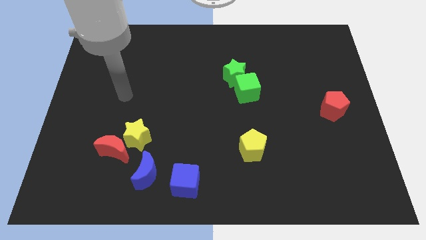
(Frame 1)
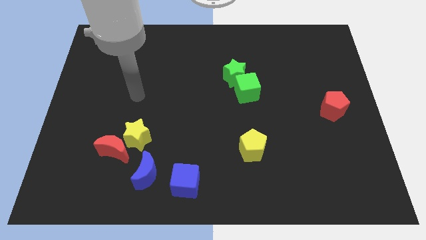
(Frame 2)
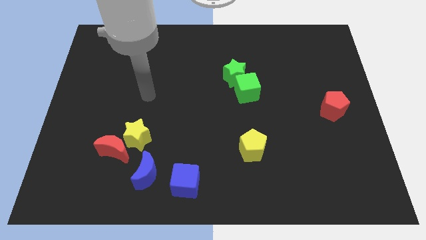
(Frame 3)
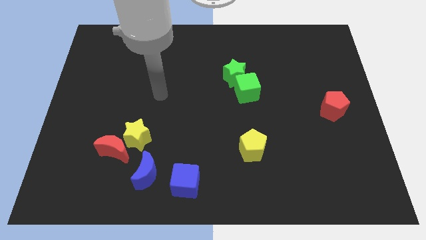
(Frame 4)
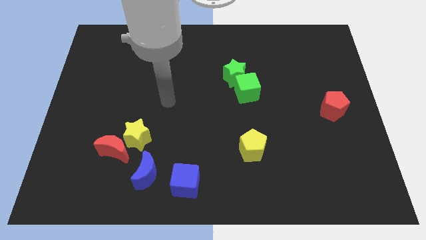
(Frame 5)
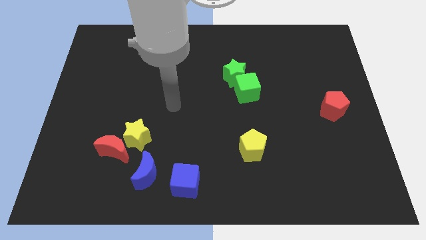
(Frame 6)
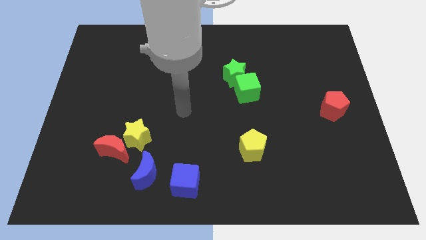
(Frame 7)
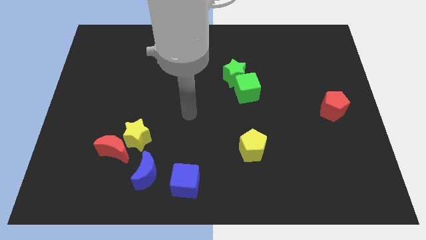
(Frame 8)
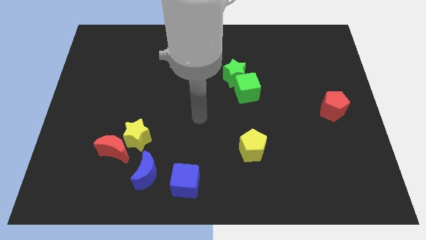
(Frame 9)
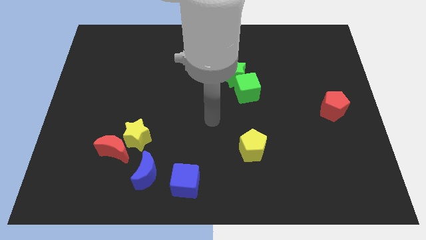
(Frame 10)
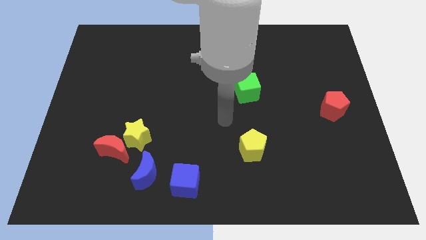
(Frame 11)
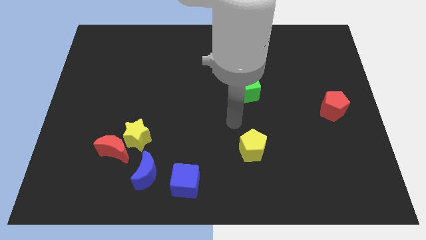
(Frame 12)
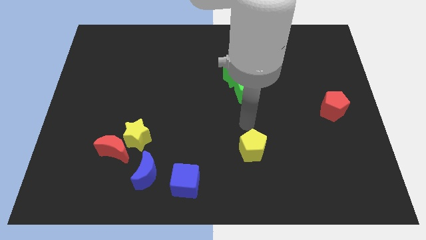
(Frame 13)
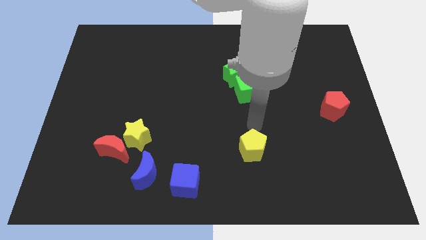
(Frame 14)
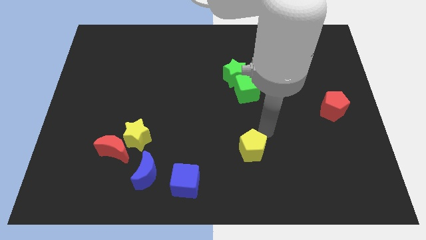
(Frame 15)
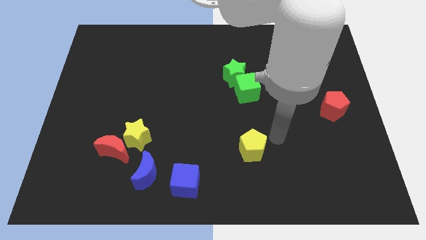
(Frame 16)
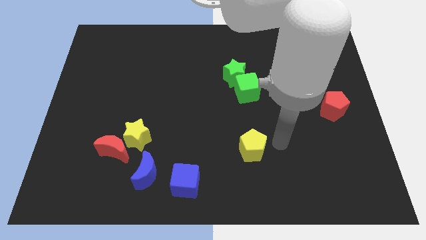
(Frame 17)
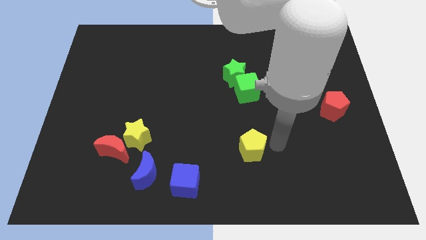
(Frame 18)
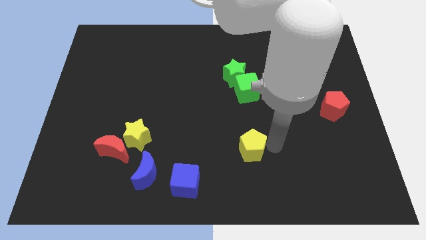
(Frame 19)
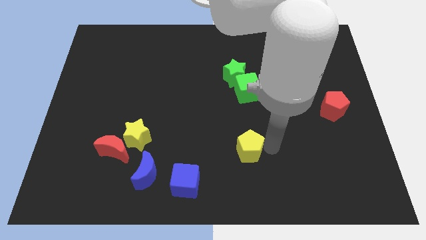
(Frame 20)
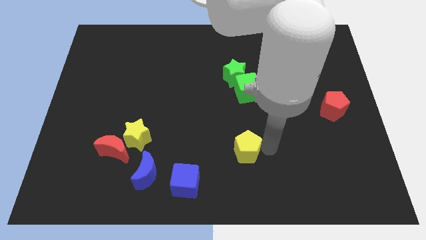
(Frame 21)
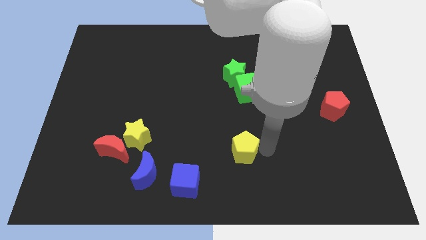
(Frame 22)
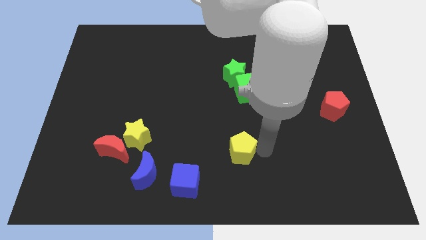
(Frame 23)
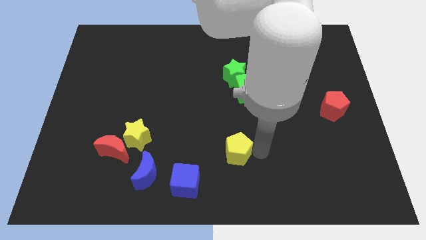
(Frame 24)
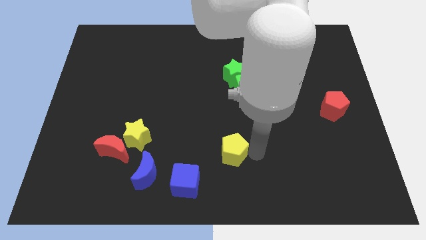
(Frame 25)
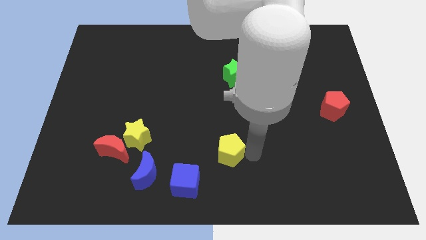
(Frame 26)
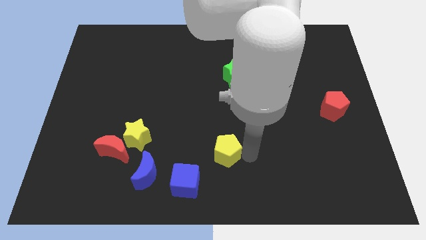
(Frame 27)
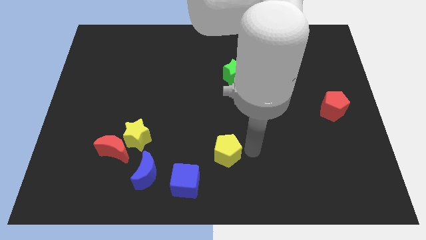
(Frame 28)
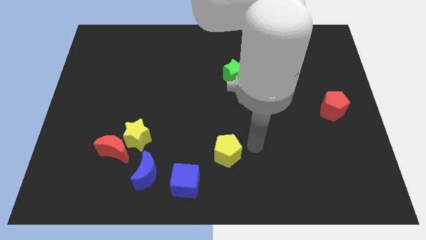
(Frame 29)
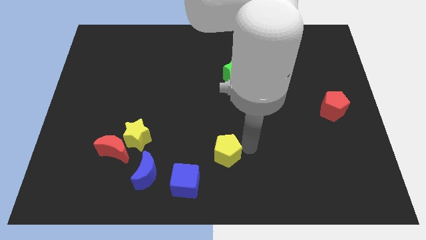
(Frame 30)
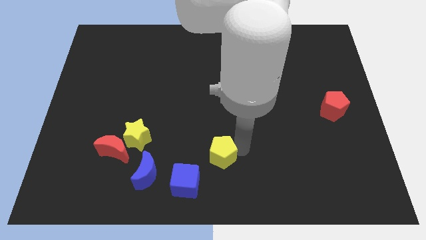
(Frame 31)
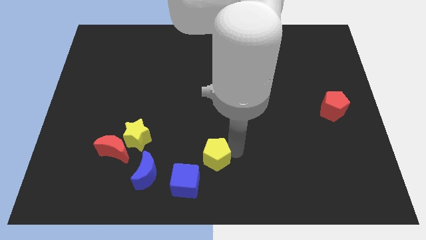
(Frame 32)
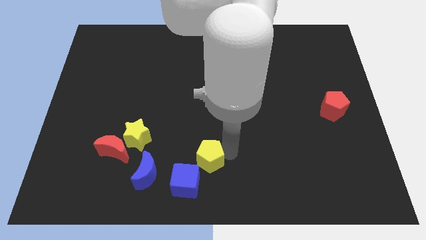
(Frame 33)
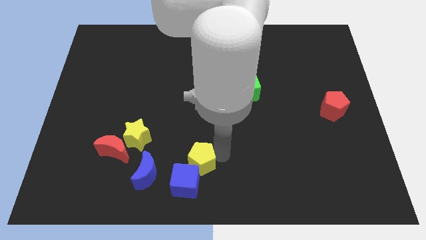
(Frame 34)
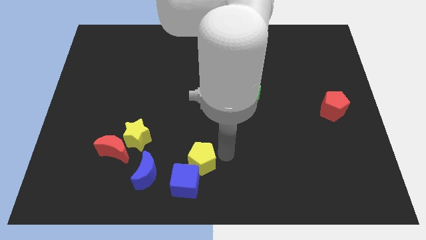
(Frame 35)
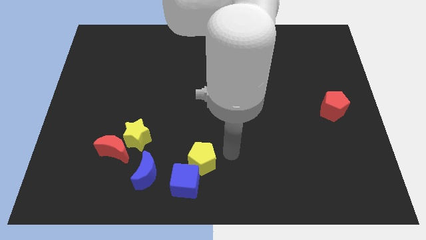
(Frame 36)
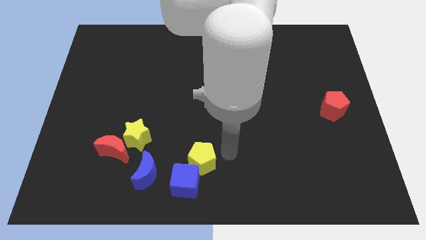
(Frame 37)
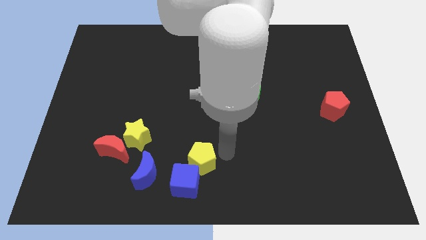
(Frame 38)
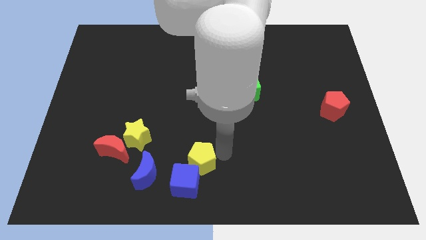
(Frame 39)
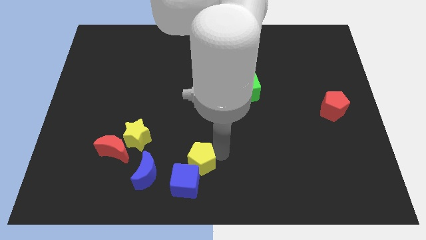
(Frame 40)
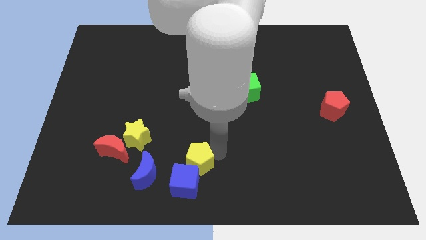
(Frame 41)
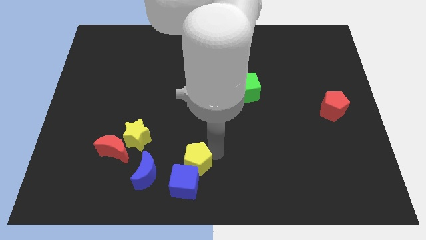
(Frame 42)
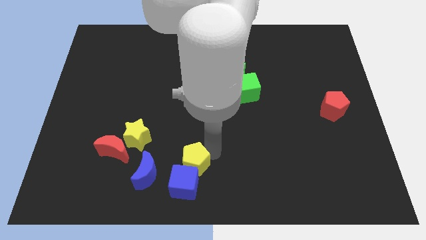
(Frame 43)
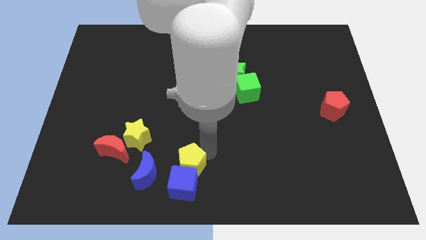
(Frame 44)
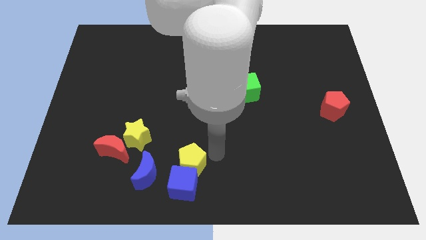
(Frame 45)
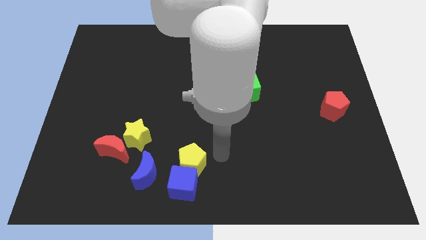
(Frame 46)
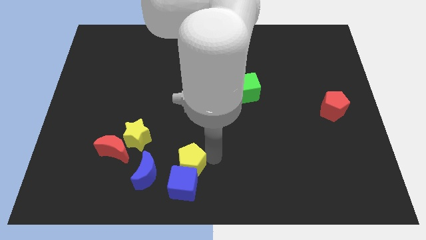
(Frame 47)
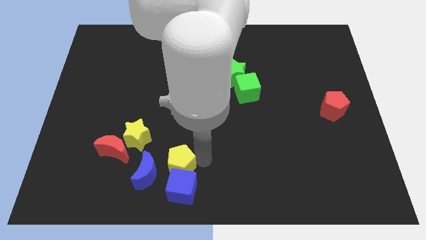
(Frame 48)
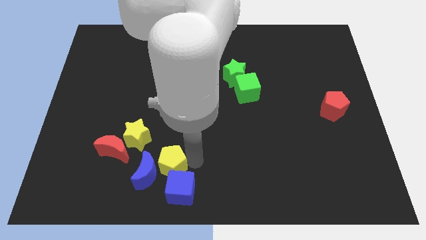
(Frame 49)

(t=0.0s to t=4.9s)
move the yellow pentagon to the blue moon

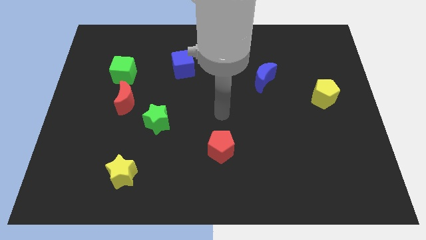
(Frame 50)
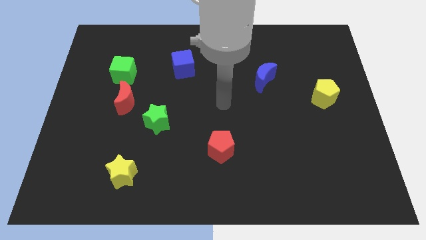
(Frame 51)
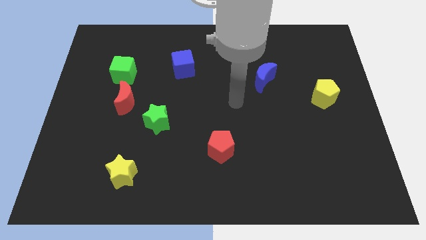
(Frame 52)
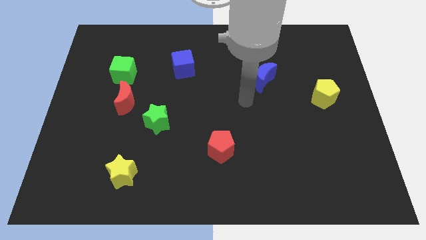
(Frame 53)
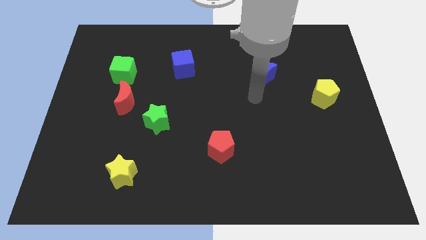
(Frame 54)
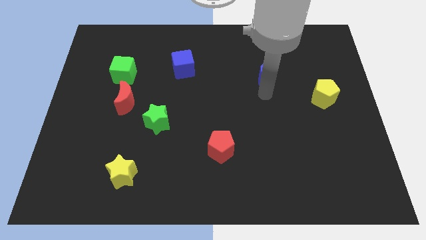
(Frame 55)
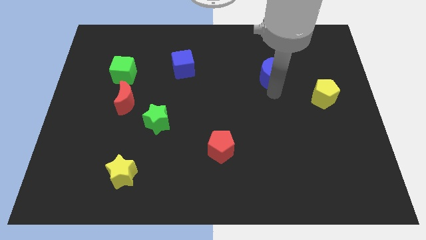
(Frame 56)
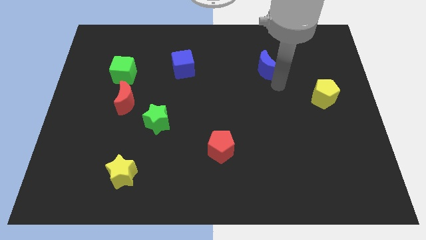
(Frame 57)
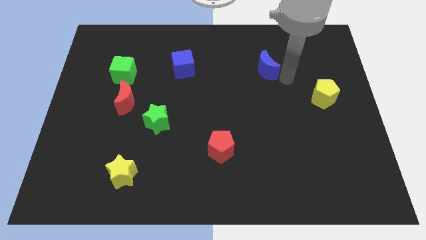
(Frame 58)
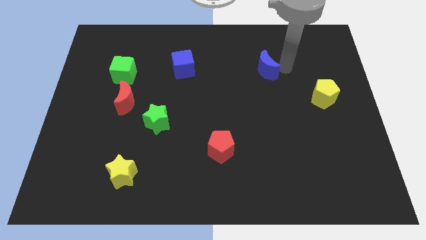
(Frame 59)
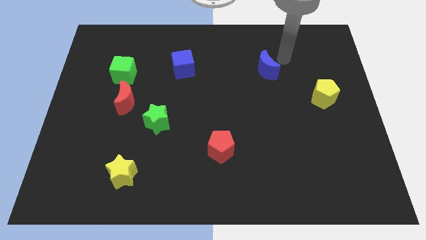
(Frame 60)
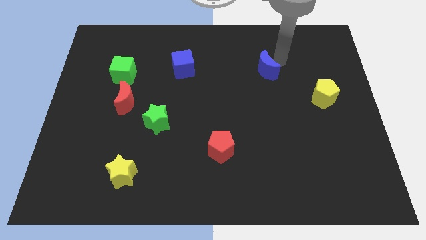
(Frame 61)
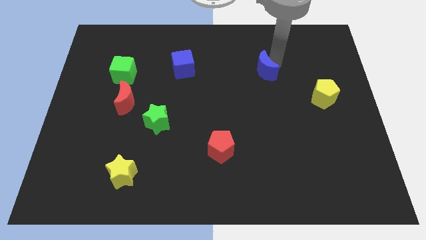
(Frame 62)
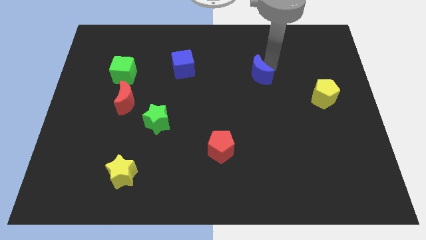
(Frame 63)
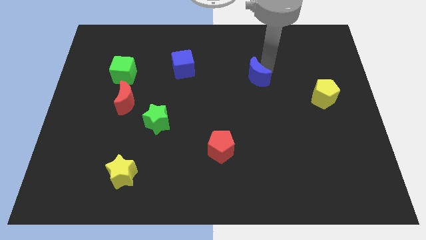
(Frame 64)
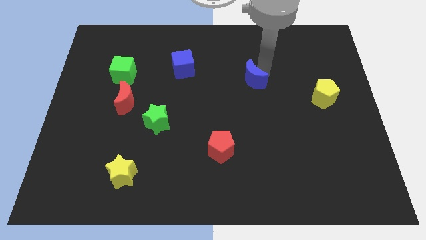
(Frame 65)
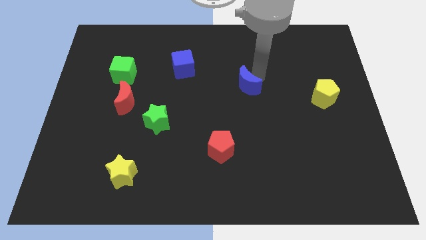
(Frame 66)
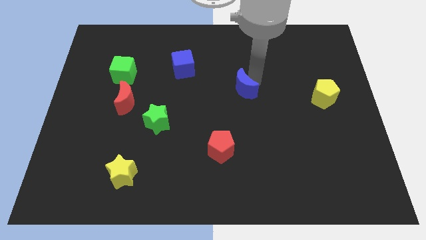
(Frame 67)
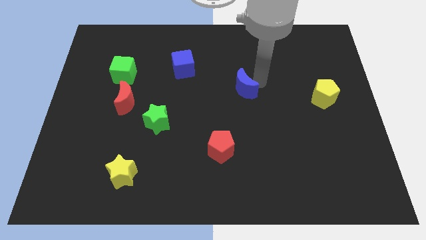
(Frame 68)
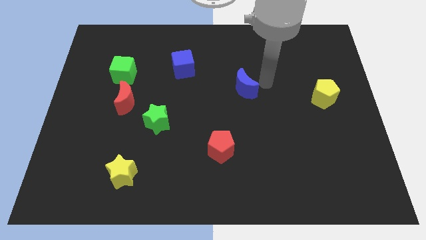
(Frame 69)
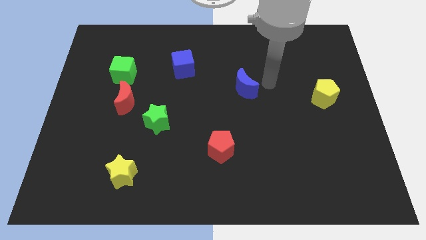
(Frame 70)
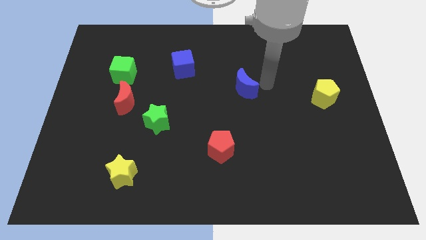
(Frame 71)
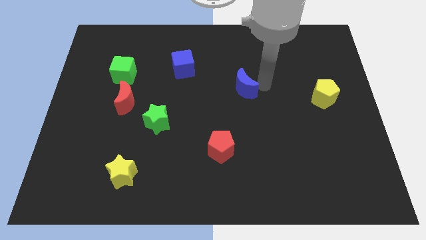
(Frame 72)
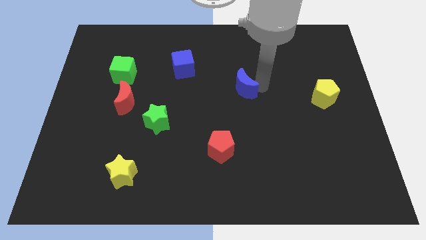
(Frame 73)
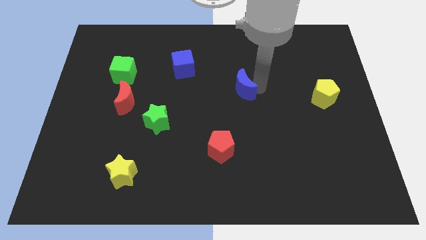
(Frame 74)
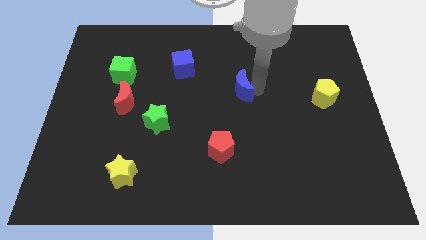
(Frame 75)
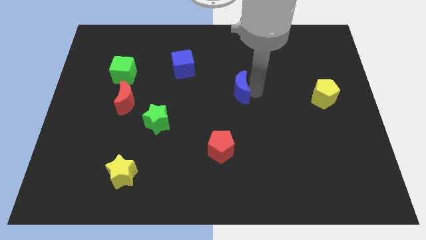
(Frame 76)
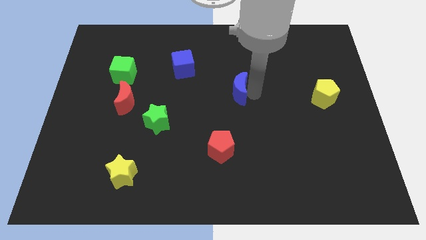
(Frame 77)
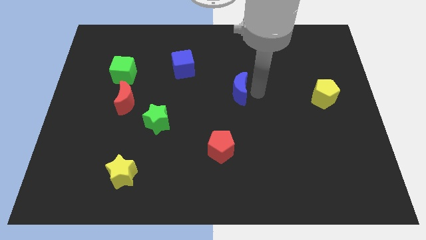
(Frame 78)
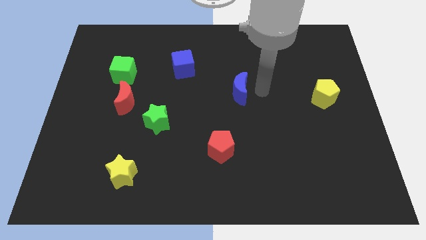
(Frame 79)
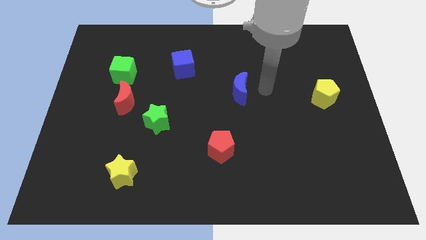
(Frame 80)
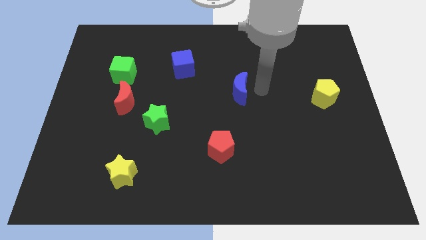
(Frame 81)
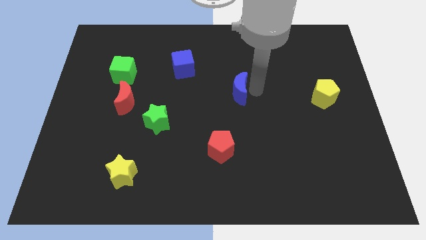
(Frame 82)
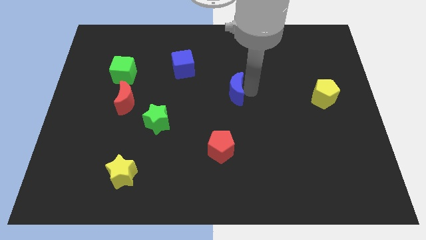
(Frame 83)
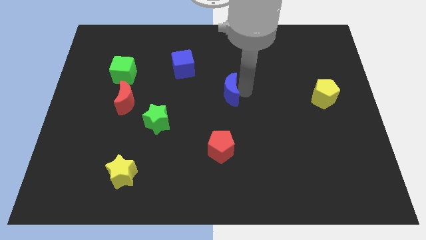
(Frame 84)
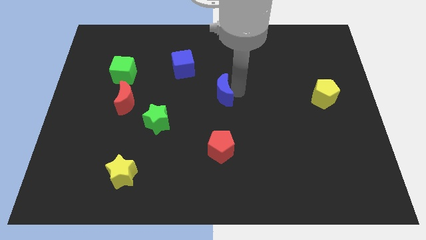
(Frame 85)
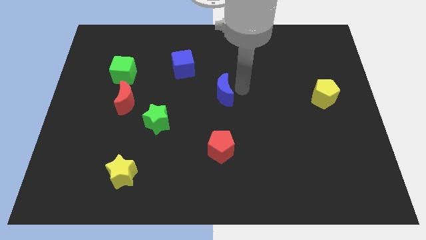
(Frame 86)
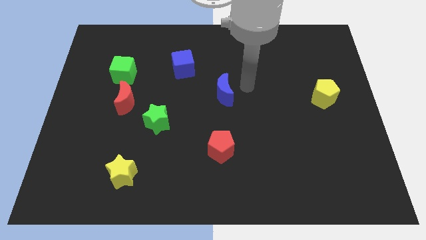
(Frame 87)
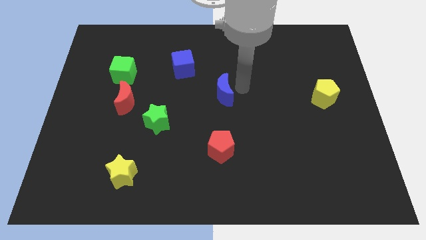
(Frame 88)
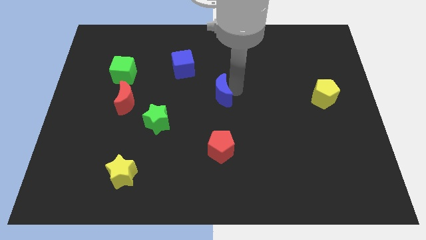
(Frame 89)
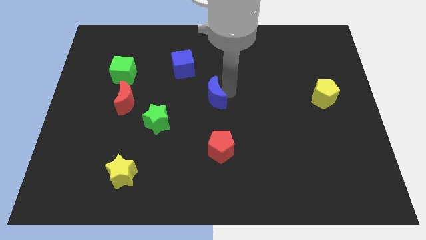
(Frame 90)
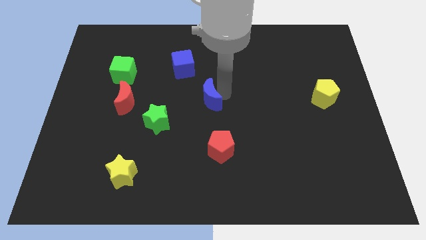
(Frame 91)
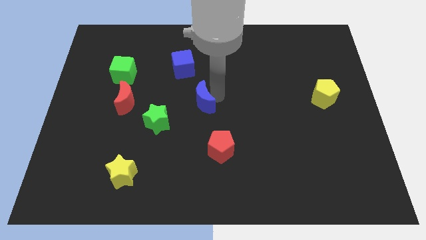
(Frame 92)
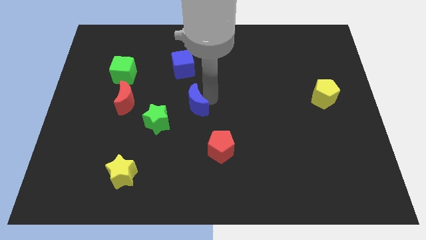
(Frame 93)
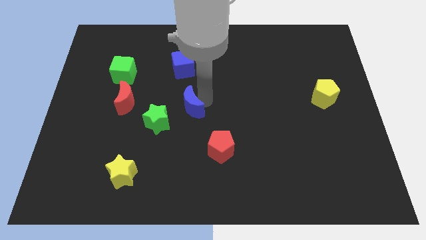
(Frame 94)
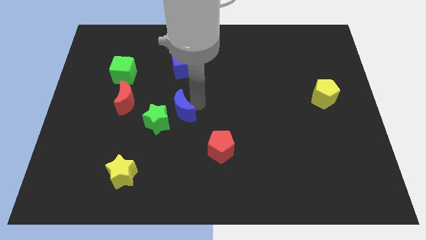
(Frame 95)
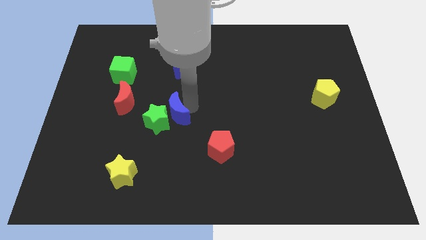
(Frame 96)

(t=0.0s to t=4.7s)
put the blue moon next to the green star
